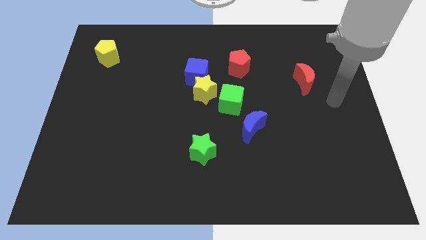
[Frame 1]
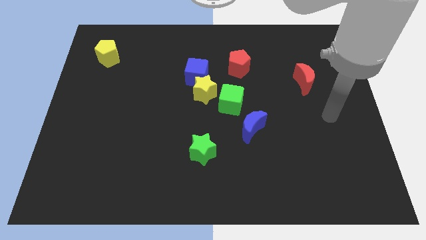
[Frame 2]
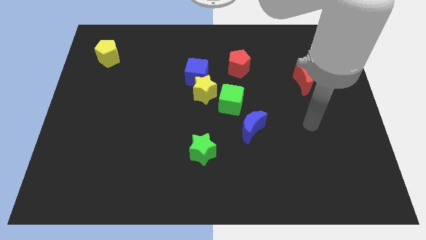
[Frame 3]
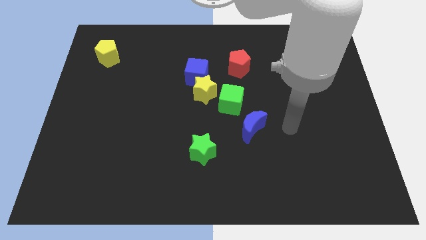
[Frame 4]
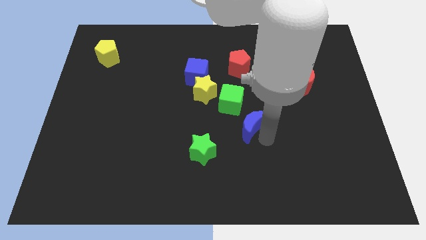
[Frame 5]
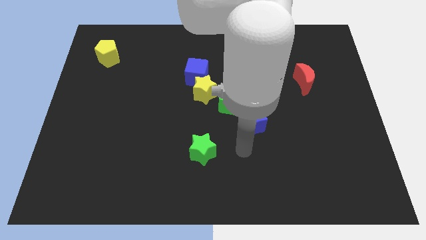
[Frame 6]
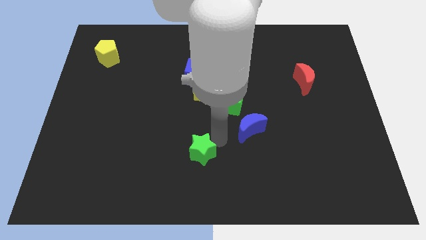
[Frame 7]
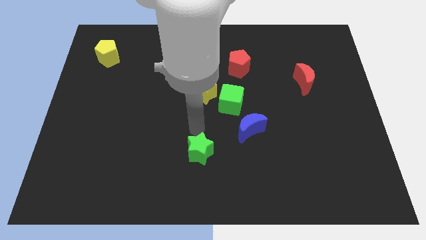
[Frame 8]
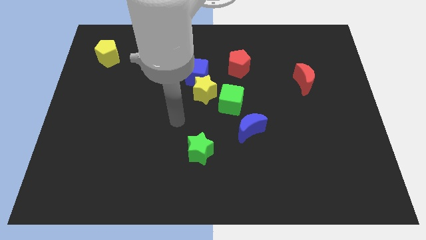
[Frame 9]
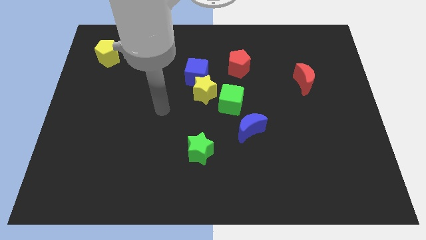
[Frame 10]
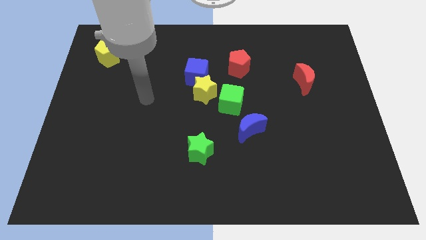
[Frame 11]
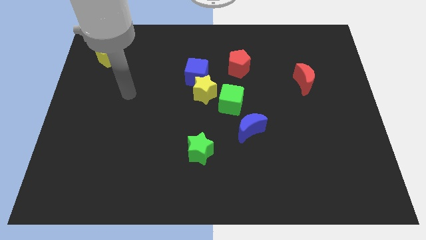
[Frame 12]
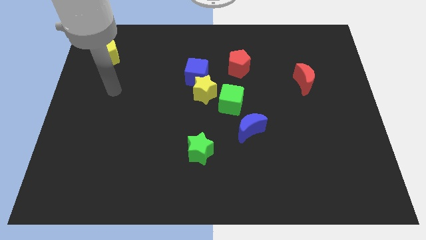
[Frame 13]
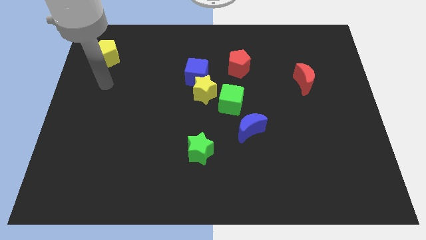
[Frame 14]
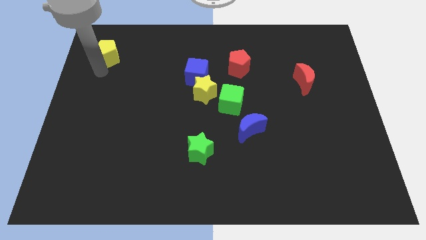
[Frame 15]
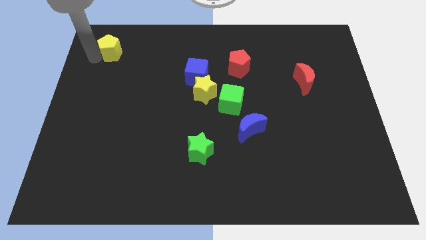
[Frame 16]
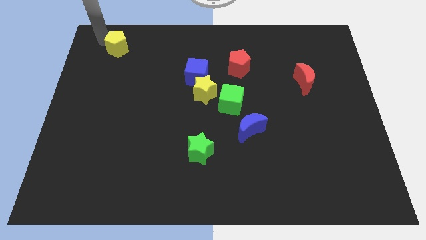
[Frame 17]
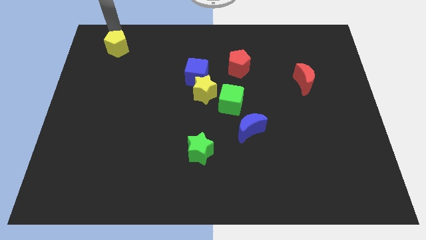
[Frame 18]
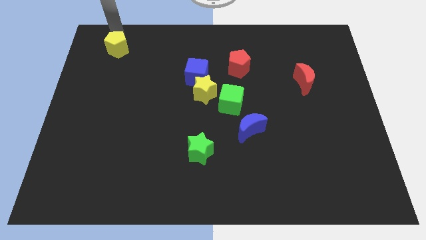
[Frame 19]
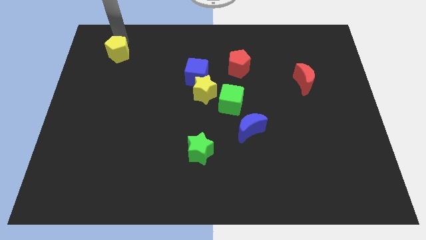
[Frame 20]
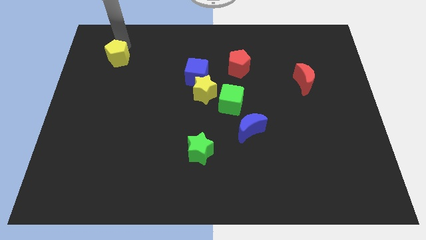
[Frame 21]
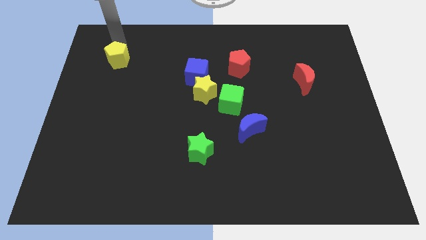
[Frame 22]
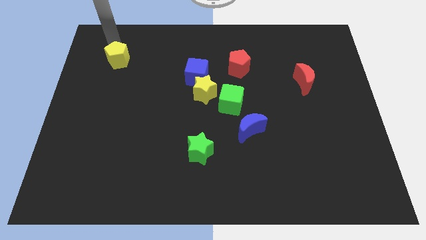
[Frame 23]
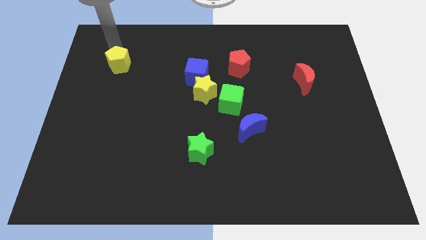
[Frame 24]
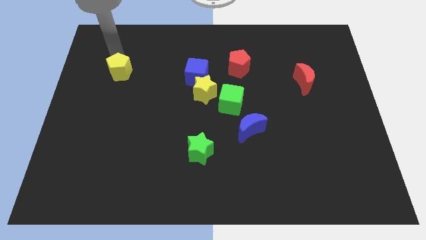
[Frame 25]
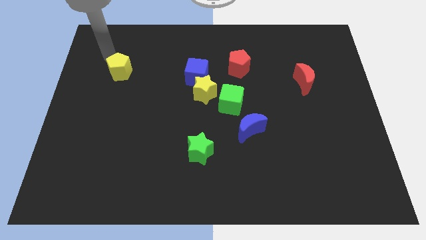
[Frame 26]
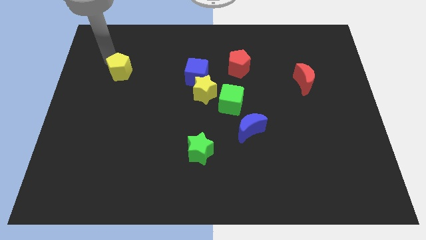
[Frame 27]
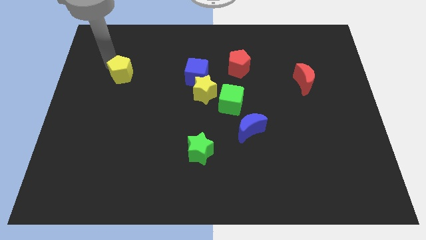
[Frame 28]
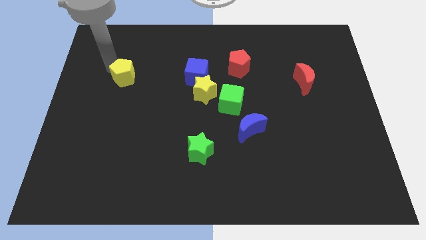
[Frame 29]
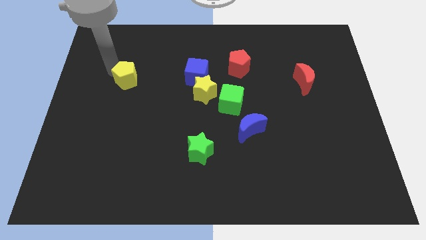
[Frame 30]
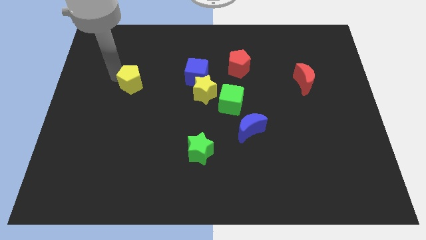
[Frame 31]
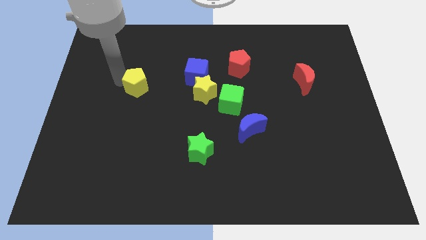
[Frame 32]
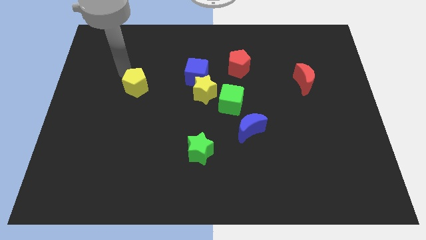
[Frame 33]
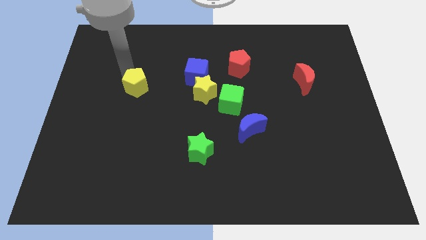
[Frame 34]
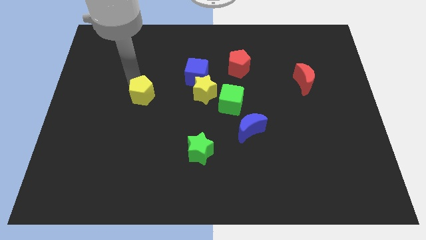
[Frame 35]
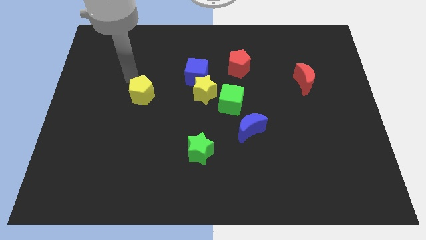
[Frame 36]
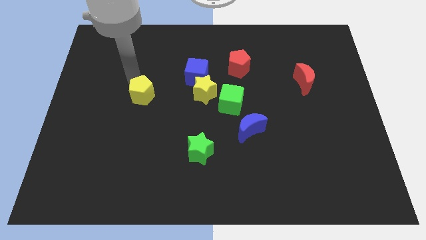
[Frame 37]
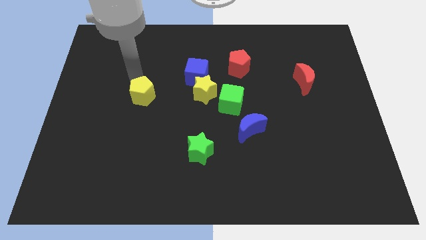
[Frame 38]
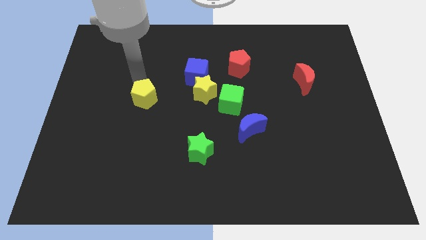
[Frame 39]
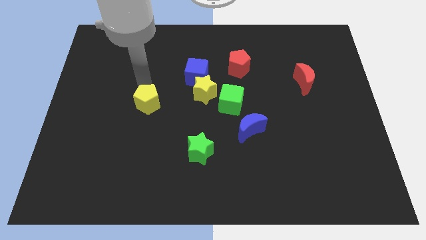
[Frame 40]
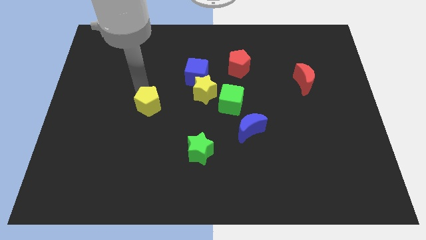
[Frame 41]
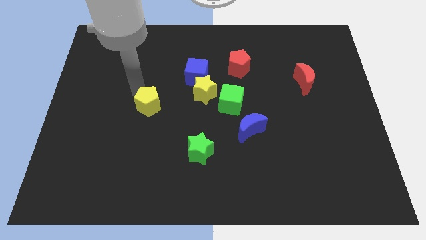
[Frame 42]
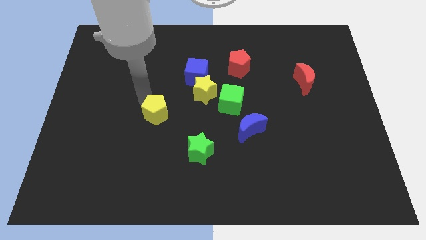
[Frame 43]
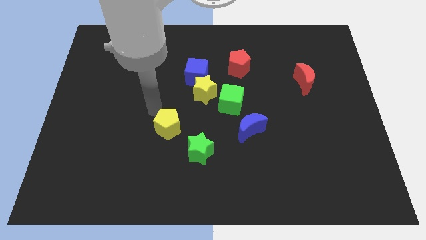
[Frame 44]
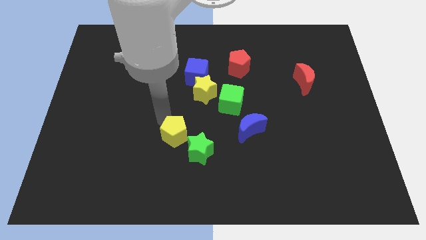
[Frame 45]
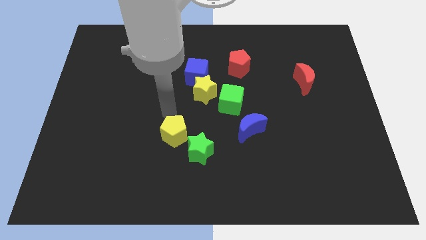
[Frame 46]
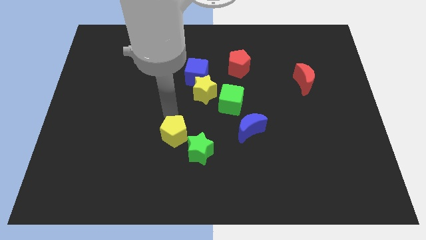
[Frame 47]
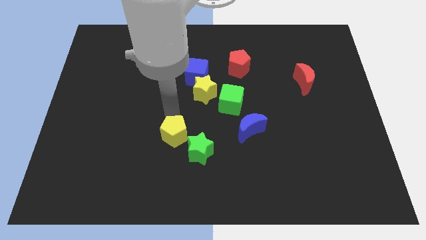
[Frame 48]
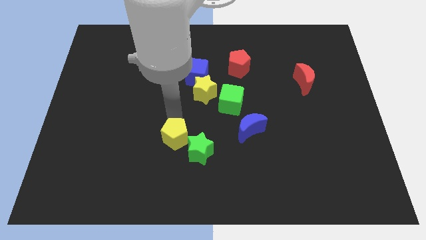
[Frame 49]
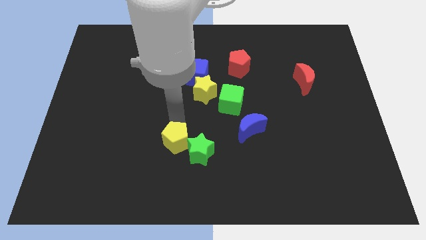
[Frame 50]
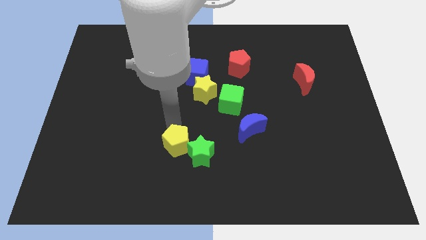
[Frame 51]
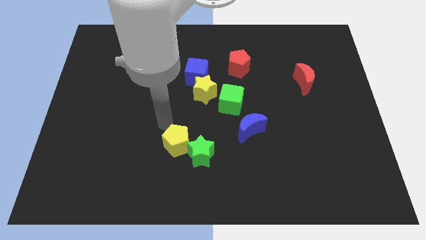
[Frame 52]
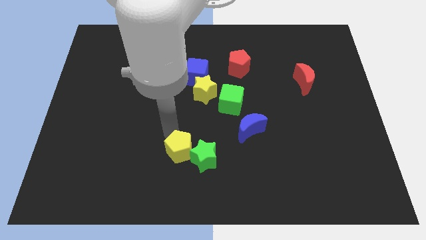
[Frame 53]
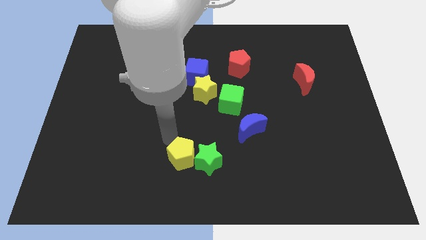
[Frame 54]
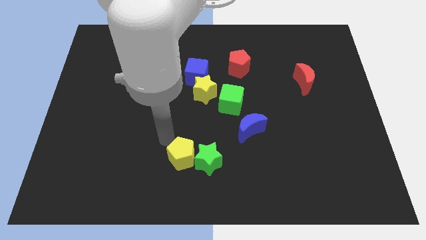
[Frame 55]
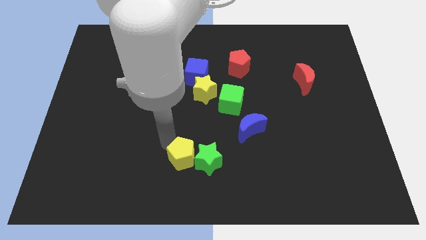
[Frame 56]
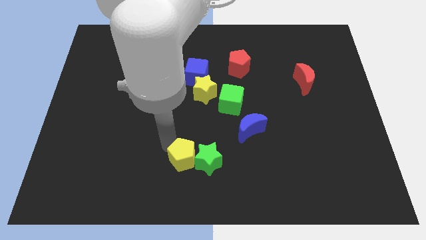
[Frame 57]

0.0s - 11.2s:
move the yellow pentagon to the bottom

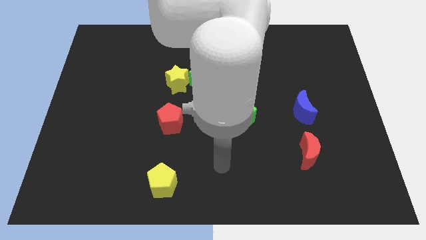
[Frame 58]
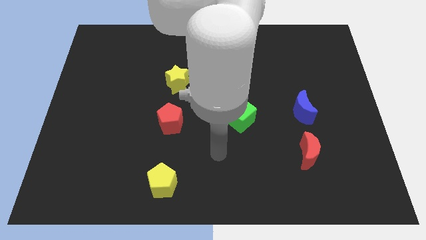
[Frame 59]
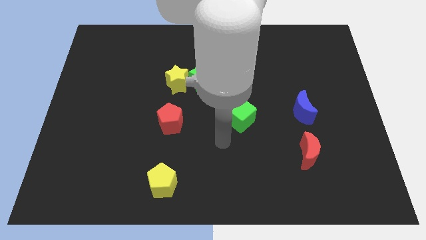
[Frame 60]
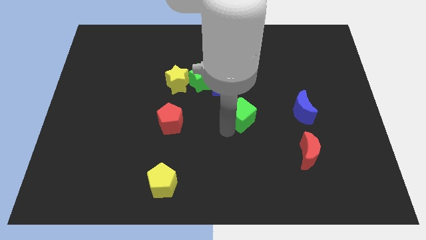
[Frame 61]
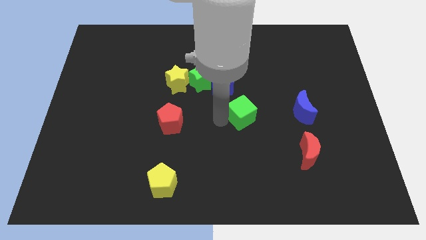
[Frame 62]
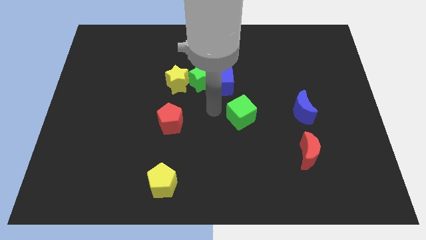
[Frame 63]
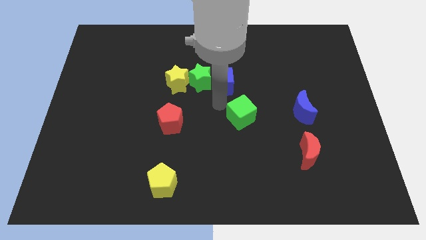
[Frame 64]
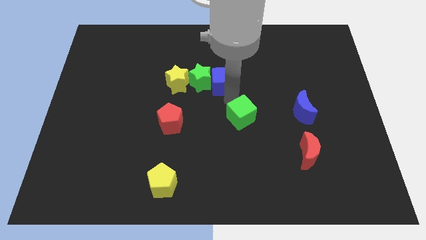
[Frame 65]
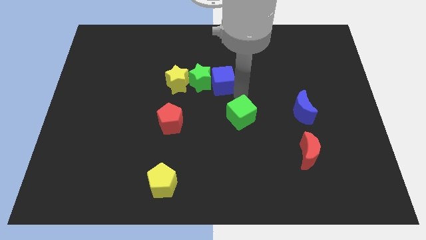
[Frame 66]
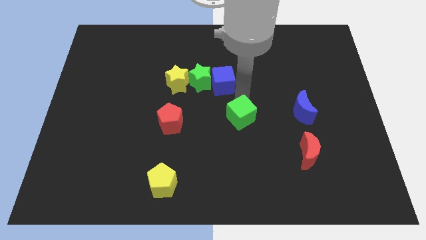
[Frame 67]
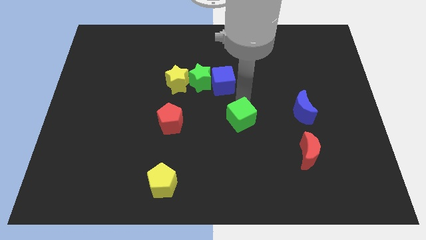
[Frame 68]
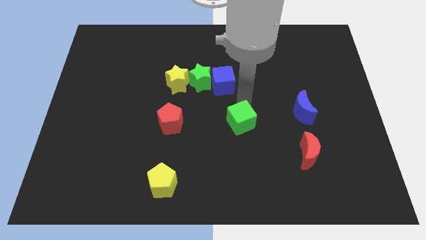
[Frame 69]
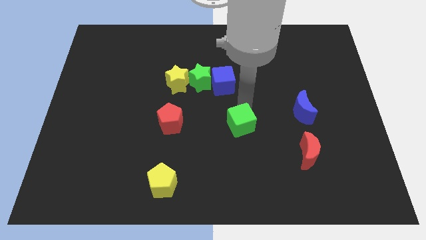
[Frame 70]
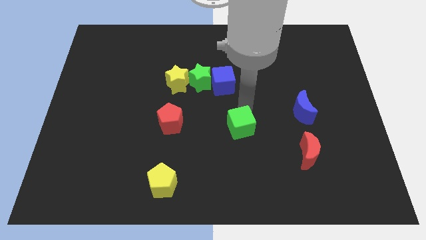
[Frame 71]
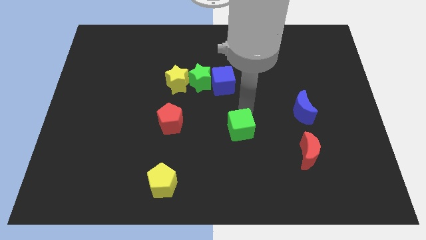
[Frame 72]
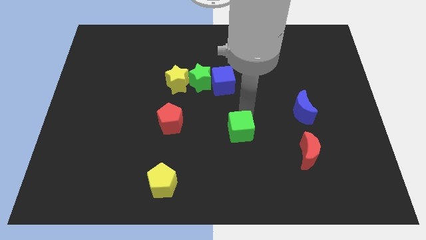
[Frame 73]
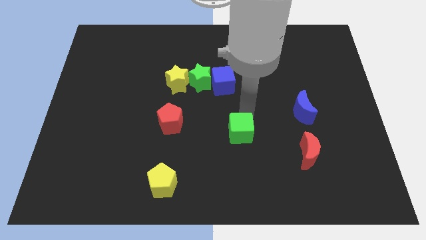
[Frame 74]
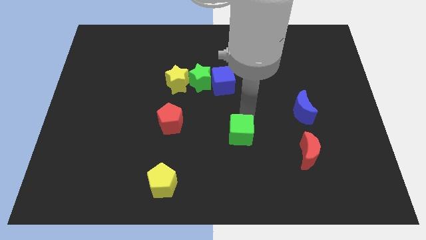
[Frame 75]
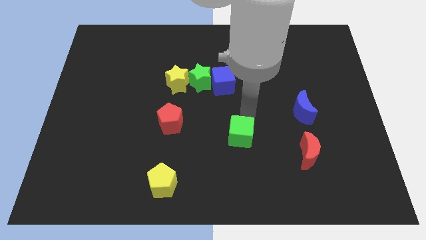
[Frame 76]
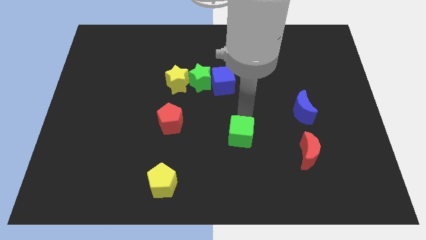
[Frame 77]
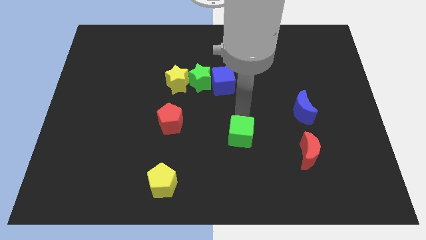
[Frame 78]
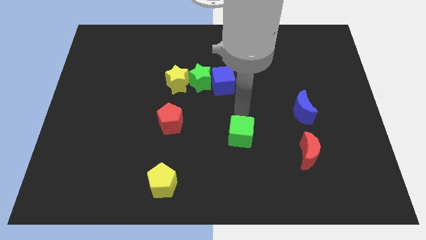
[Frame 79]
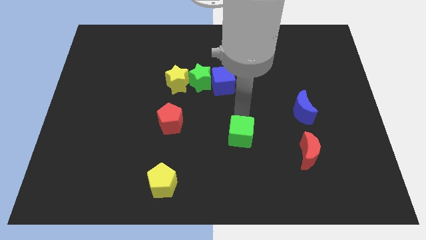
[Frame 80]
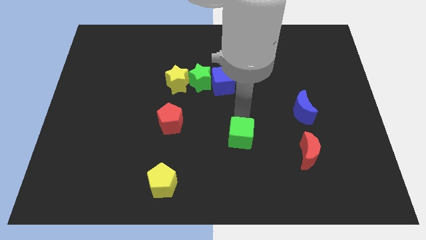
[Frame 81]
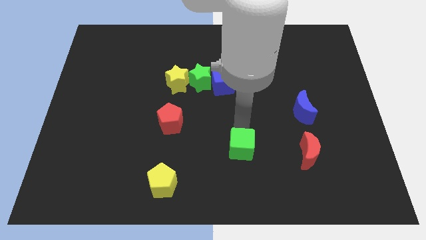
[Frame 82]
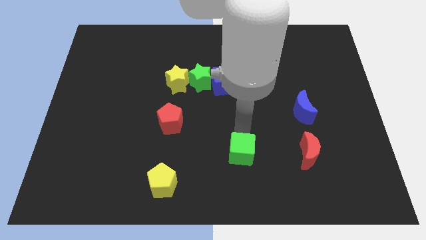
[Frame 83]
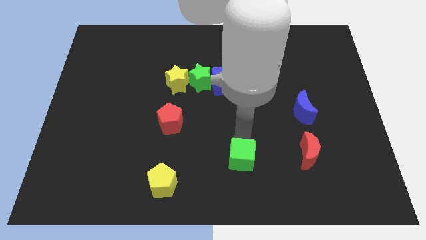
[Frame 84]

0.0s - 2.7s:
slide the green cube to the bottom
